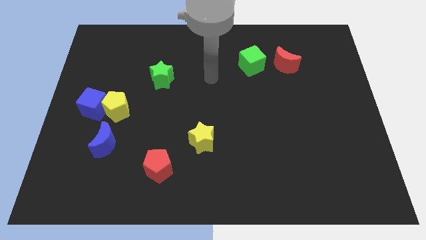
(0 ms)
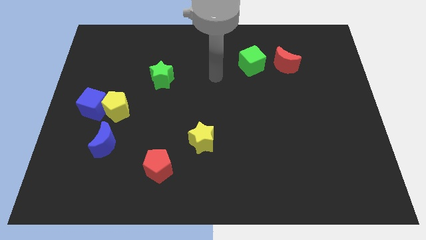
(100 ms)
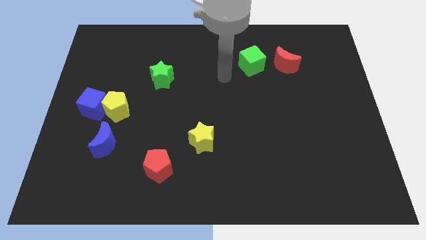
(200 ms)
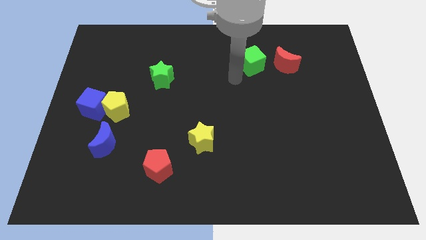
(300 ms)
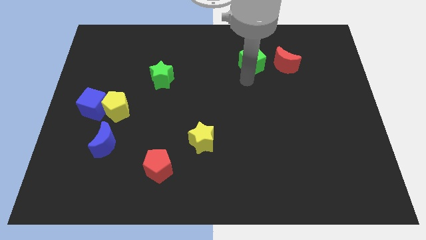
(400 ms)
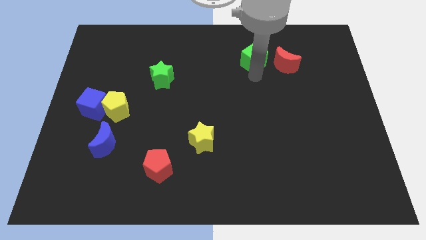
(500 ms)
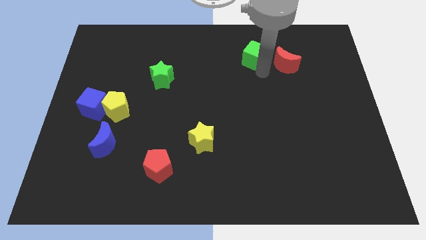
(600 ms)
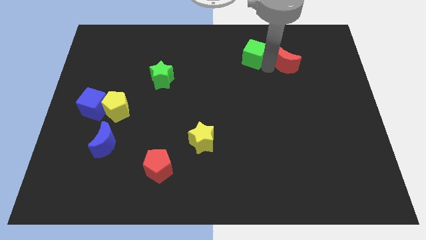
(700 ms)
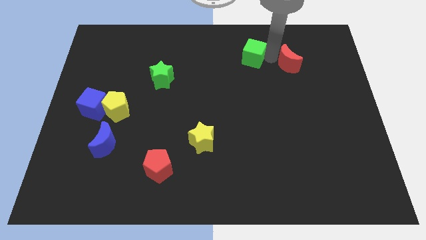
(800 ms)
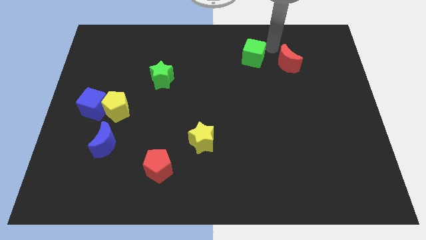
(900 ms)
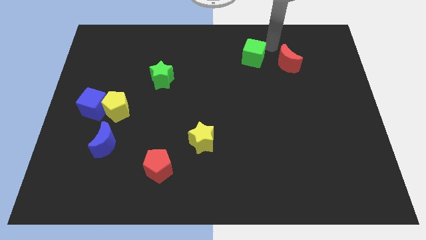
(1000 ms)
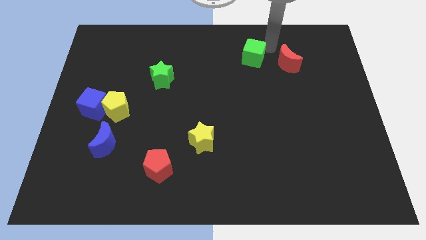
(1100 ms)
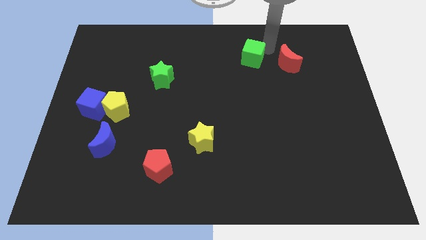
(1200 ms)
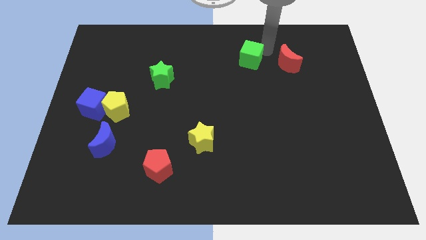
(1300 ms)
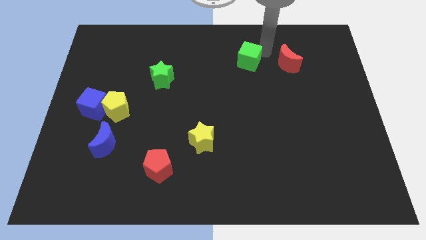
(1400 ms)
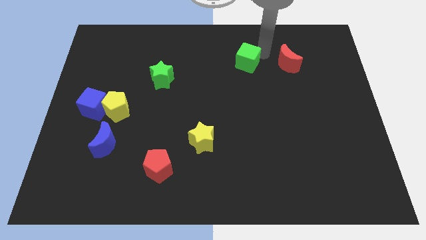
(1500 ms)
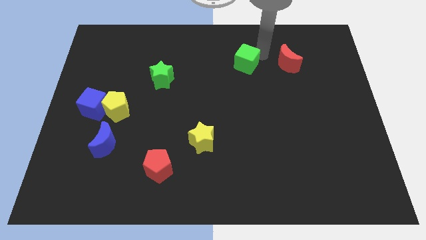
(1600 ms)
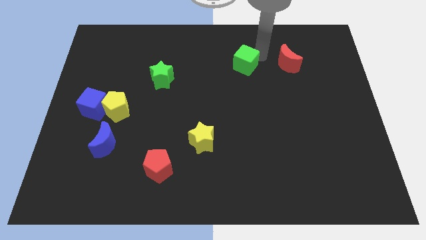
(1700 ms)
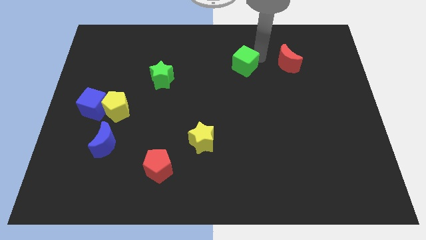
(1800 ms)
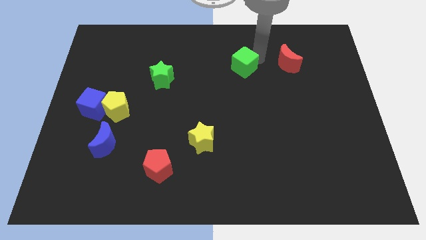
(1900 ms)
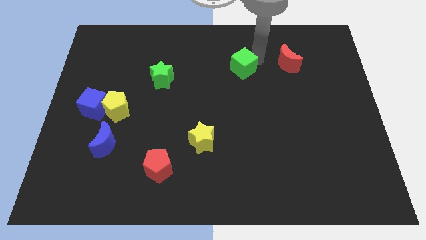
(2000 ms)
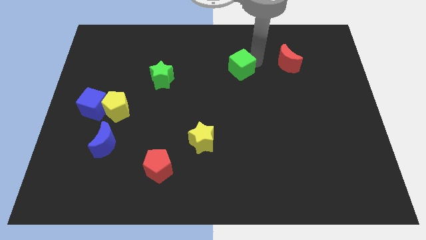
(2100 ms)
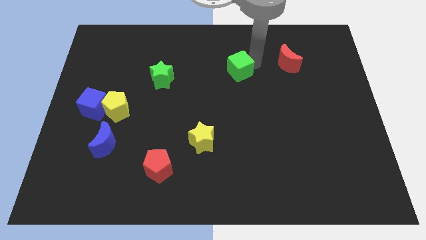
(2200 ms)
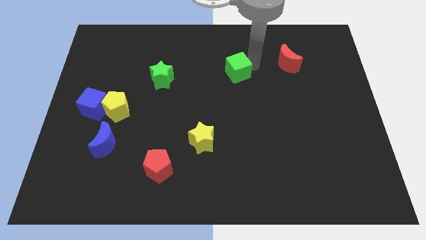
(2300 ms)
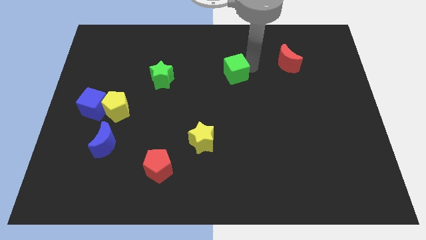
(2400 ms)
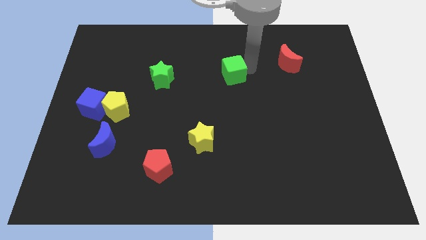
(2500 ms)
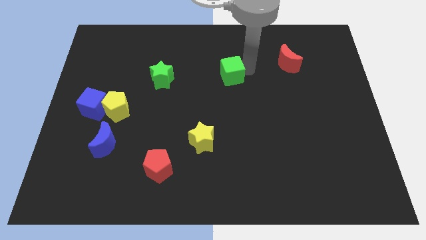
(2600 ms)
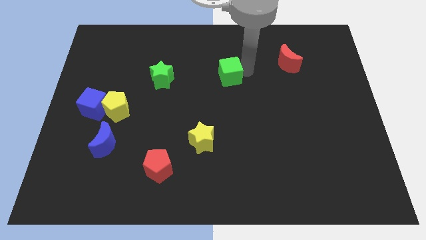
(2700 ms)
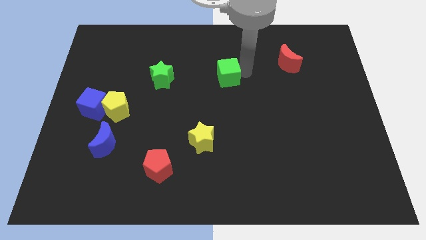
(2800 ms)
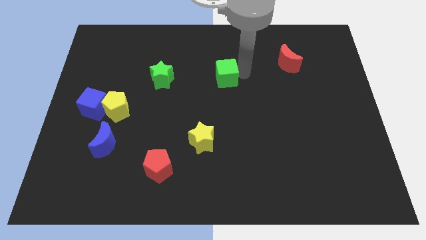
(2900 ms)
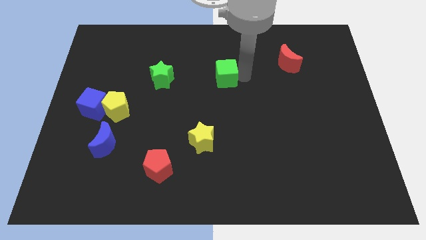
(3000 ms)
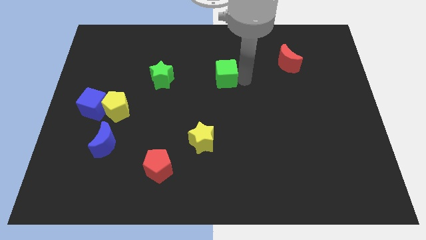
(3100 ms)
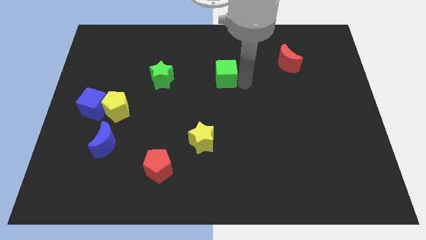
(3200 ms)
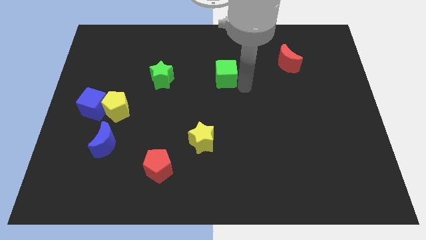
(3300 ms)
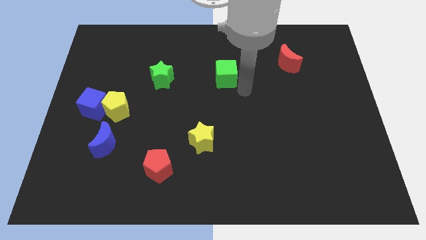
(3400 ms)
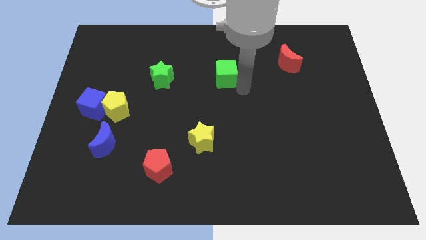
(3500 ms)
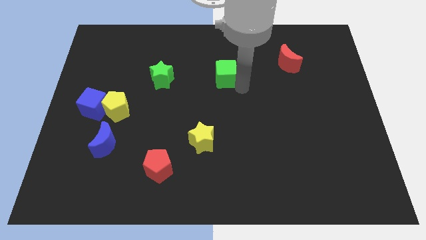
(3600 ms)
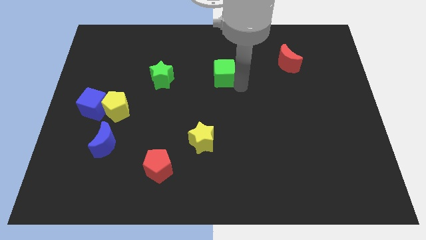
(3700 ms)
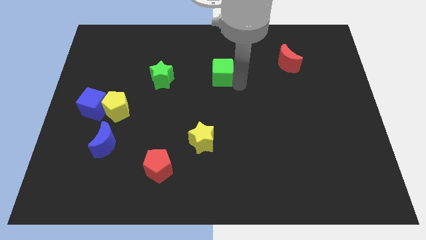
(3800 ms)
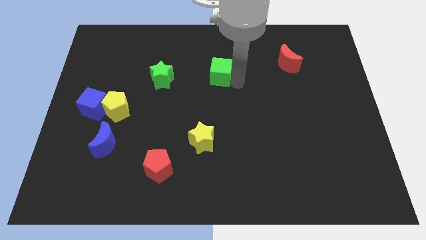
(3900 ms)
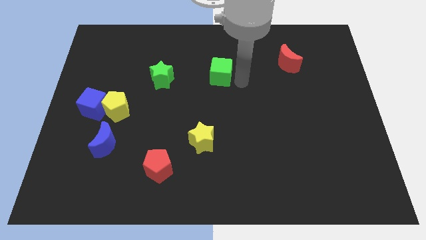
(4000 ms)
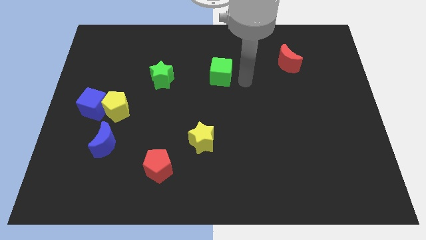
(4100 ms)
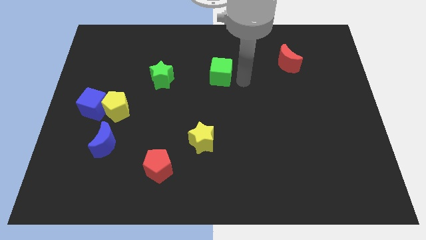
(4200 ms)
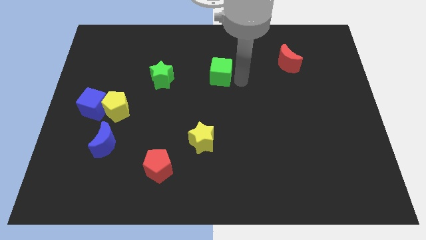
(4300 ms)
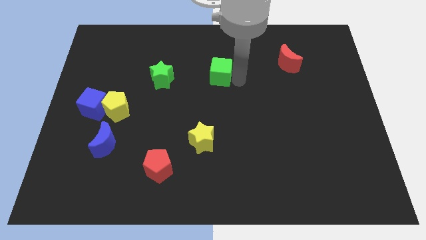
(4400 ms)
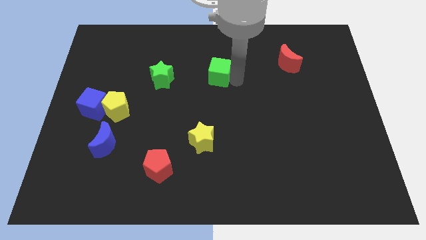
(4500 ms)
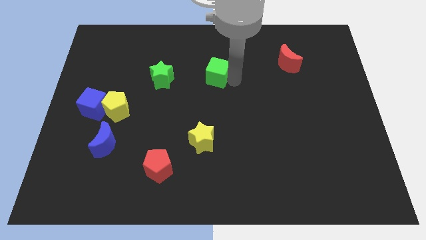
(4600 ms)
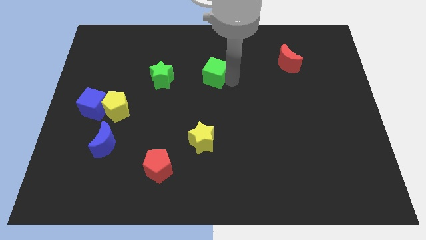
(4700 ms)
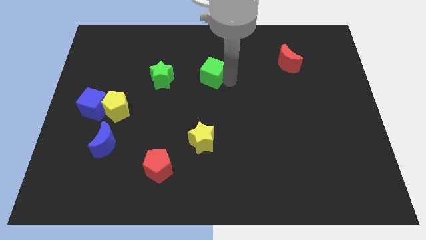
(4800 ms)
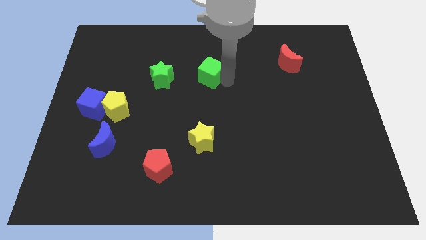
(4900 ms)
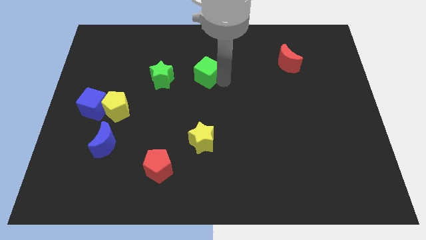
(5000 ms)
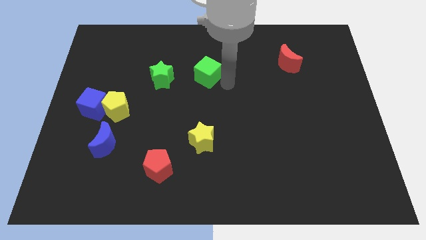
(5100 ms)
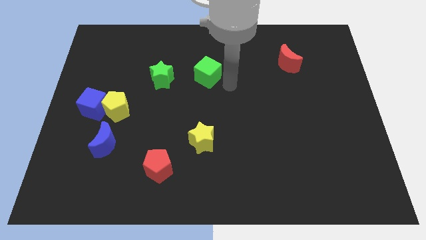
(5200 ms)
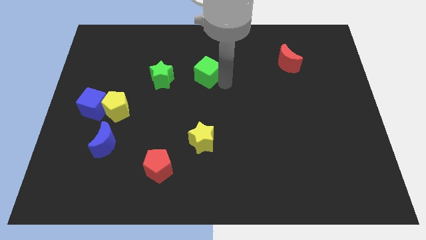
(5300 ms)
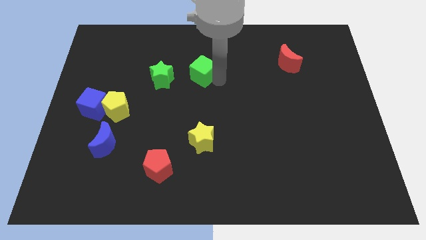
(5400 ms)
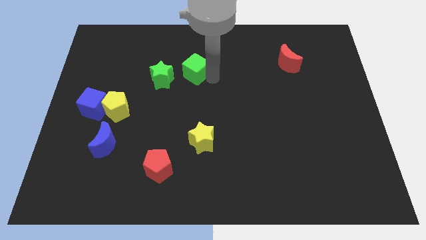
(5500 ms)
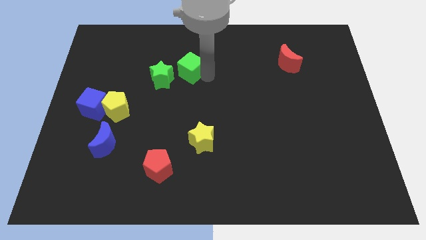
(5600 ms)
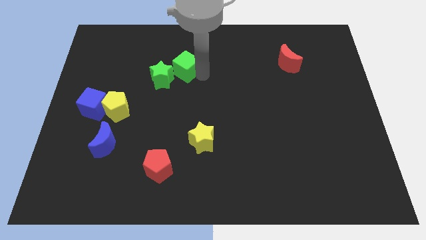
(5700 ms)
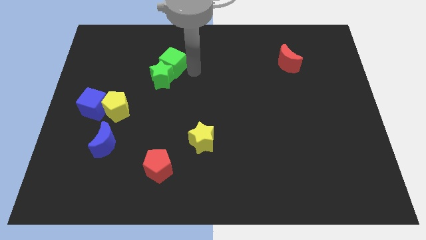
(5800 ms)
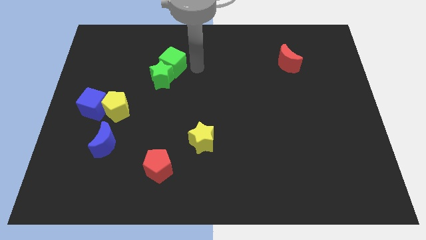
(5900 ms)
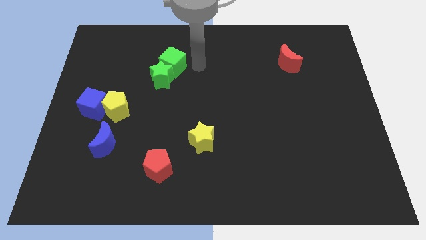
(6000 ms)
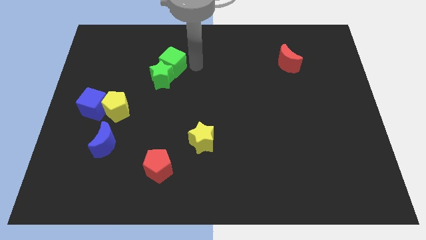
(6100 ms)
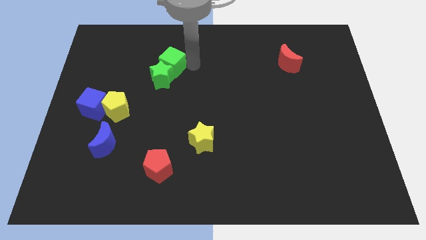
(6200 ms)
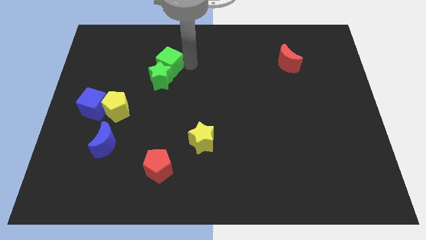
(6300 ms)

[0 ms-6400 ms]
push the green cube to the top left of the green star
